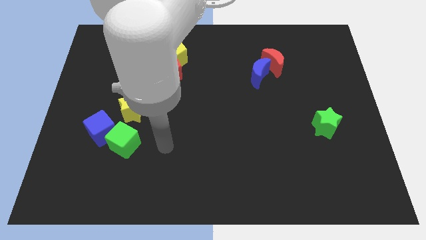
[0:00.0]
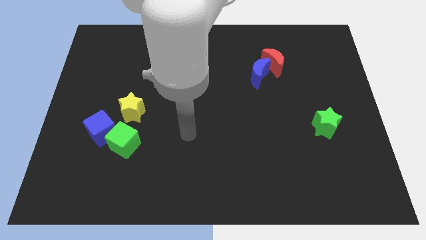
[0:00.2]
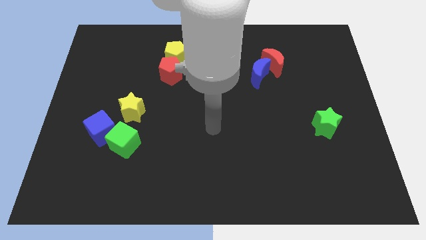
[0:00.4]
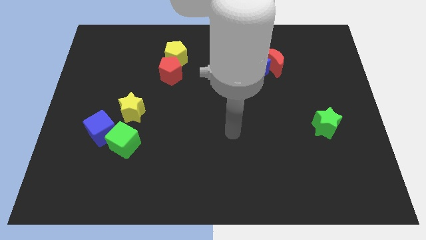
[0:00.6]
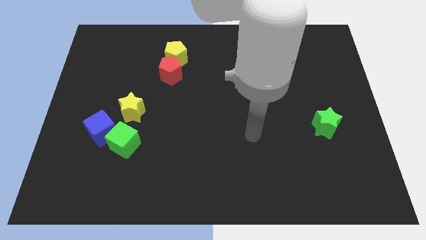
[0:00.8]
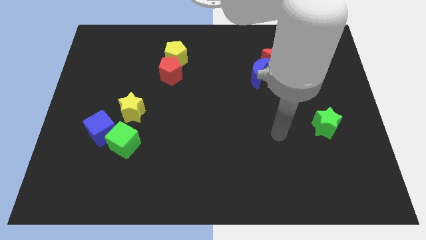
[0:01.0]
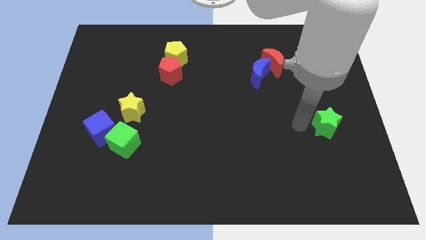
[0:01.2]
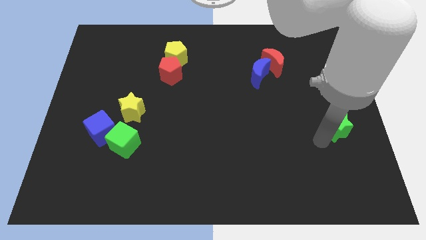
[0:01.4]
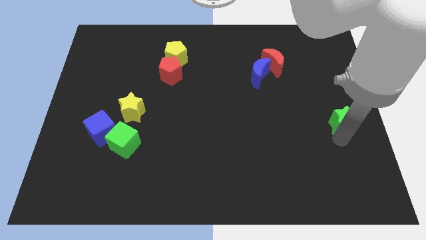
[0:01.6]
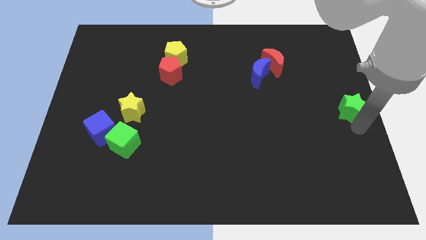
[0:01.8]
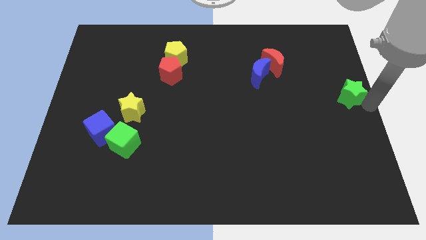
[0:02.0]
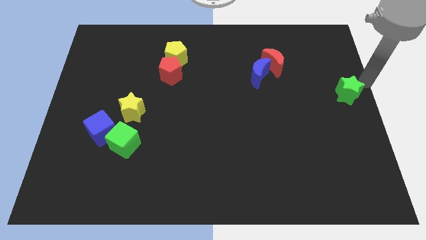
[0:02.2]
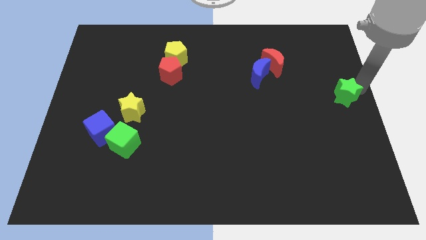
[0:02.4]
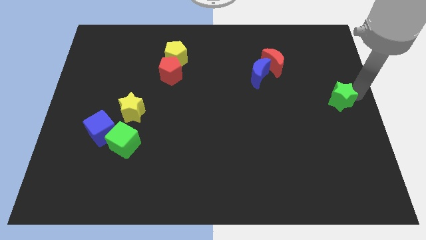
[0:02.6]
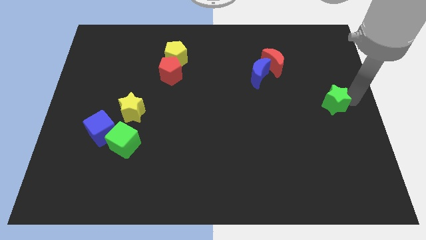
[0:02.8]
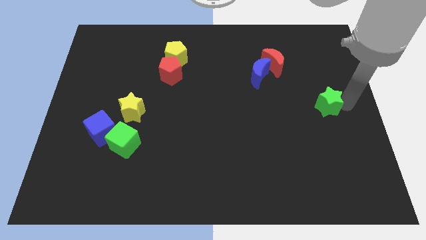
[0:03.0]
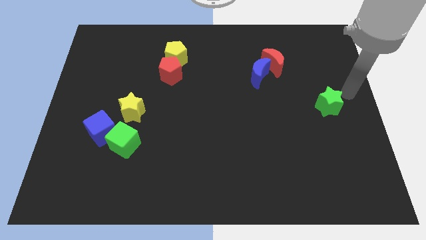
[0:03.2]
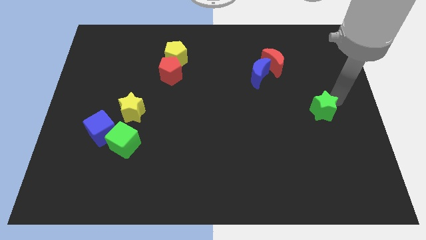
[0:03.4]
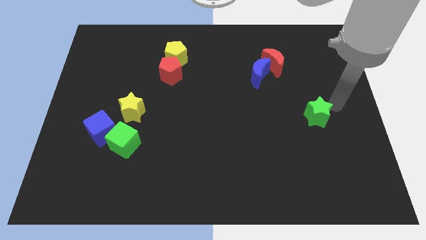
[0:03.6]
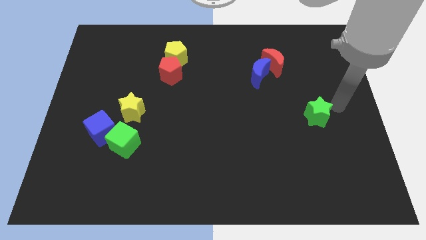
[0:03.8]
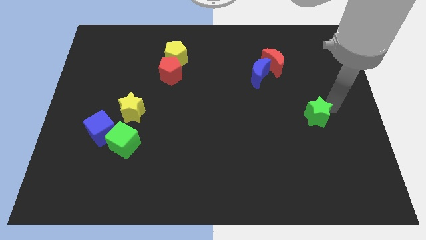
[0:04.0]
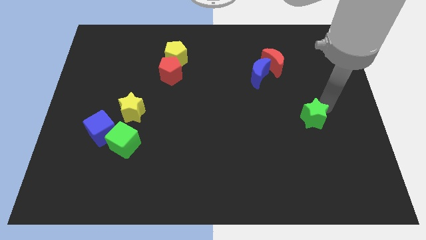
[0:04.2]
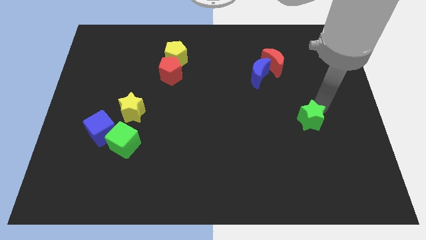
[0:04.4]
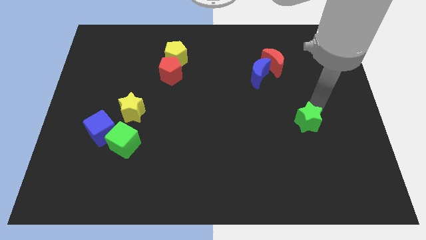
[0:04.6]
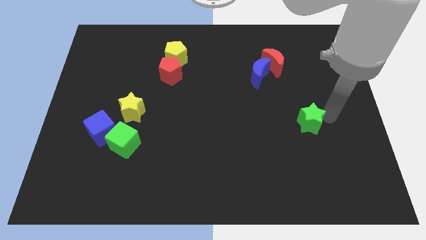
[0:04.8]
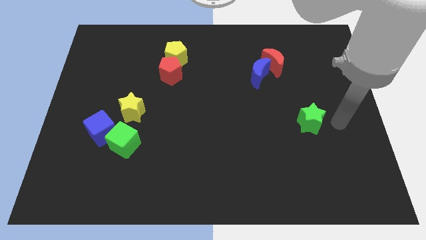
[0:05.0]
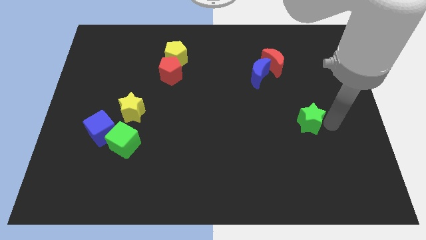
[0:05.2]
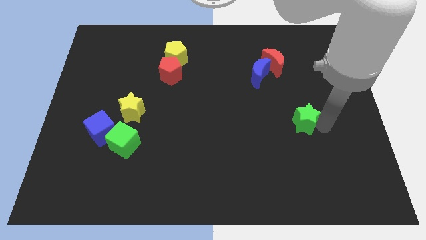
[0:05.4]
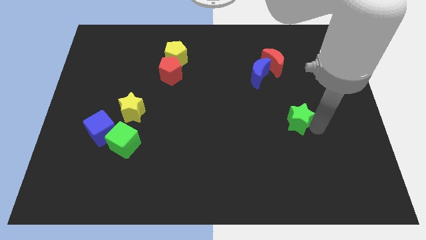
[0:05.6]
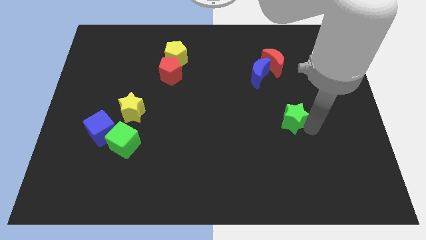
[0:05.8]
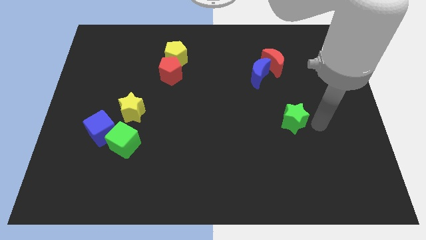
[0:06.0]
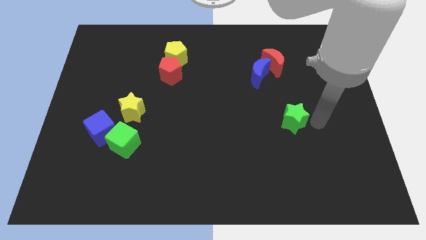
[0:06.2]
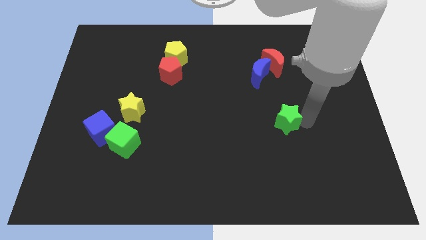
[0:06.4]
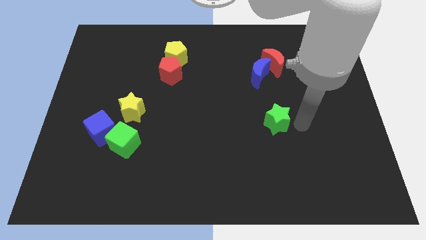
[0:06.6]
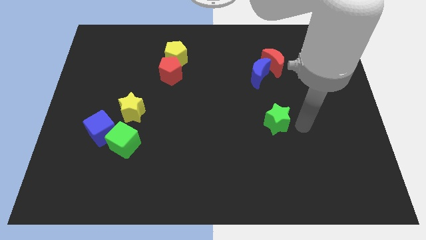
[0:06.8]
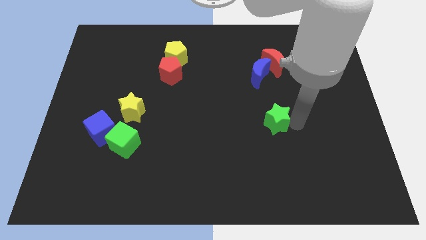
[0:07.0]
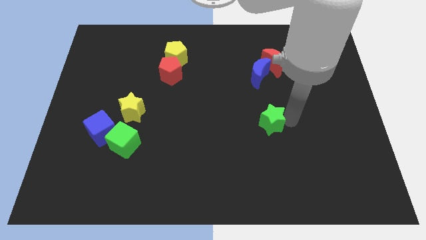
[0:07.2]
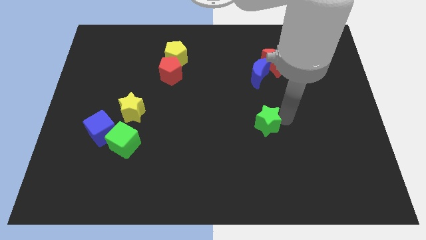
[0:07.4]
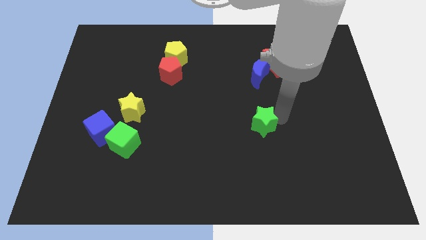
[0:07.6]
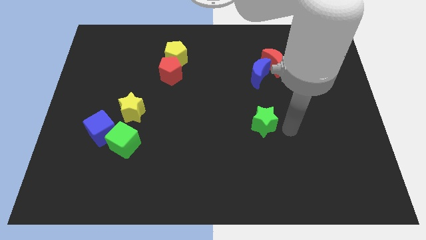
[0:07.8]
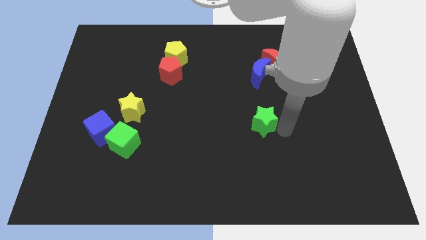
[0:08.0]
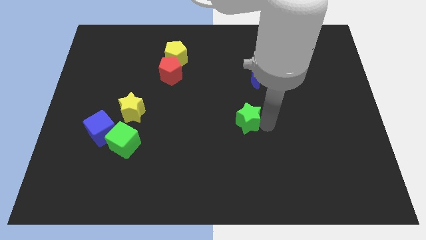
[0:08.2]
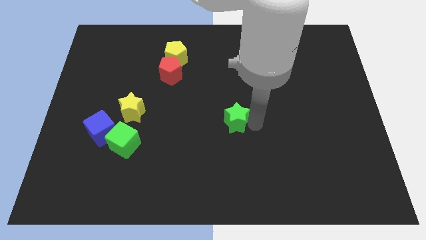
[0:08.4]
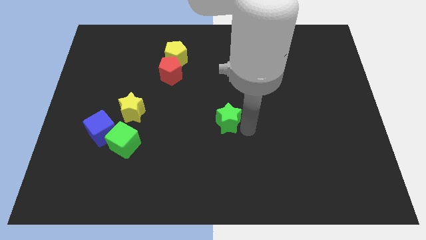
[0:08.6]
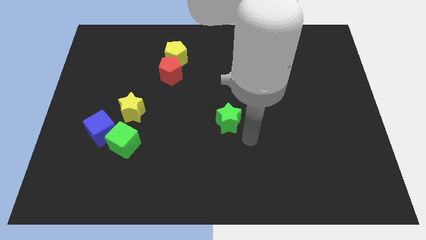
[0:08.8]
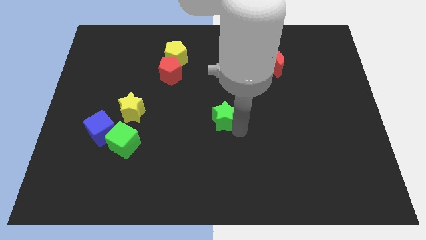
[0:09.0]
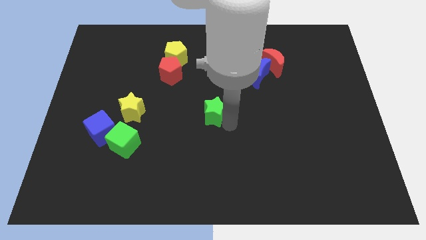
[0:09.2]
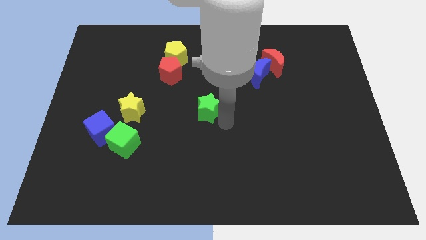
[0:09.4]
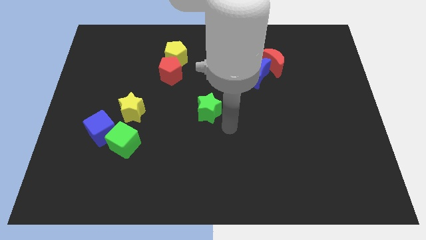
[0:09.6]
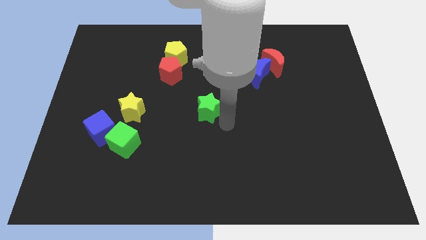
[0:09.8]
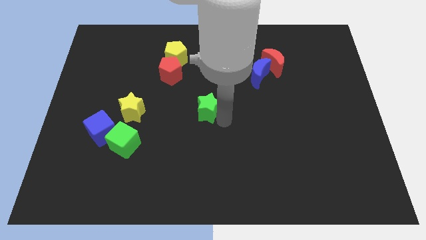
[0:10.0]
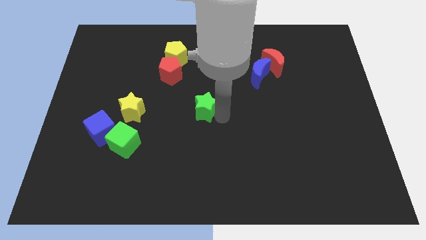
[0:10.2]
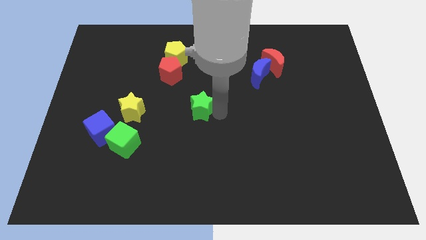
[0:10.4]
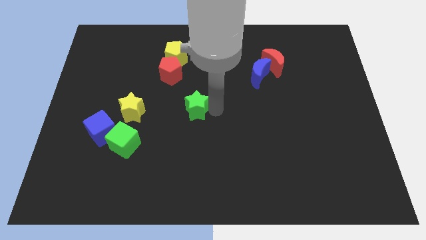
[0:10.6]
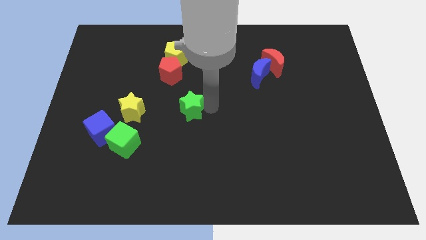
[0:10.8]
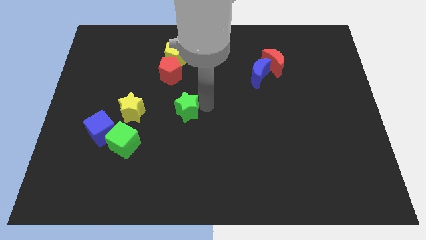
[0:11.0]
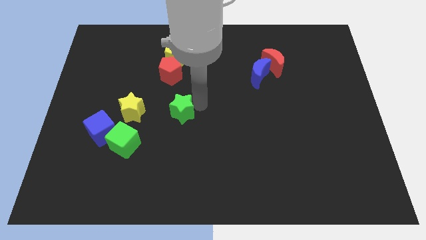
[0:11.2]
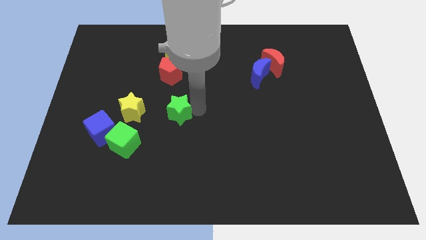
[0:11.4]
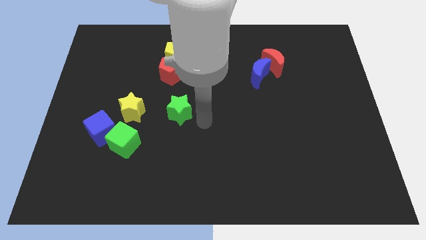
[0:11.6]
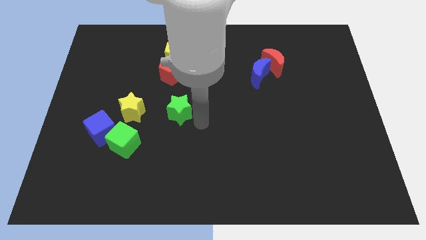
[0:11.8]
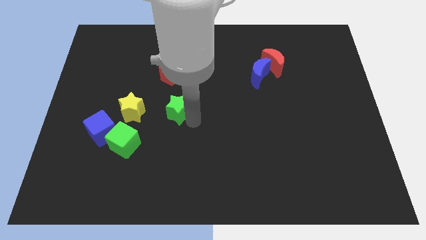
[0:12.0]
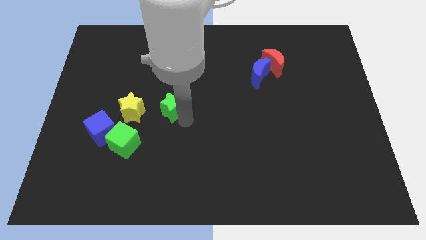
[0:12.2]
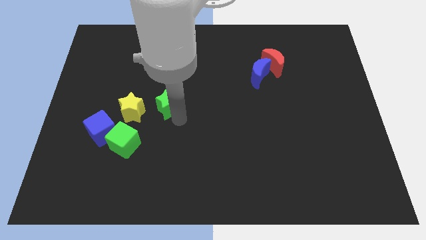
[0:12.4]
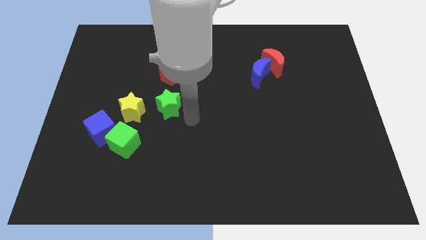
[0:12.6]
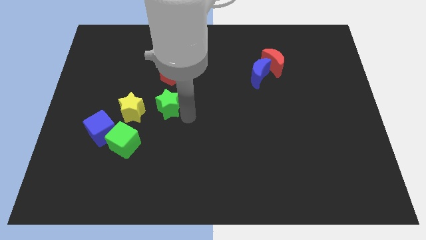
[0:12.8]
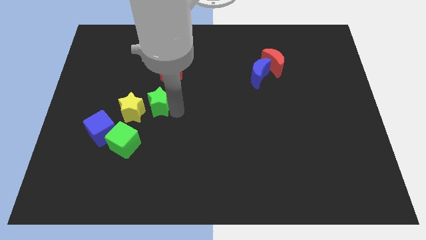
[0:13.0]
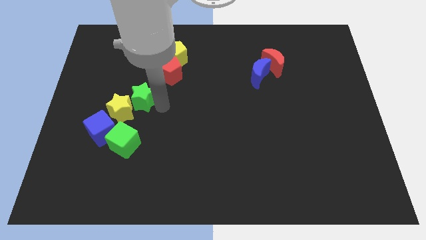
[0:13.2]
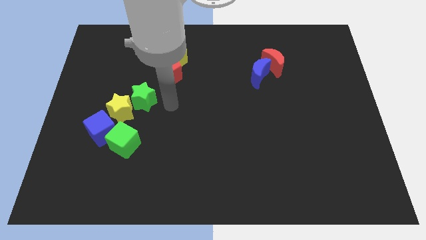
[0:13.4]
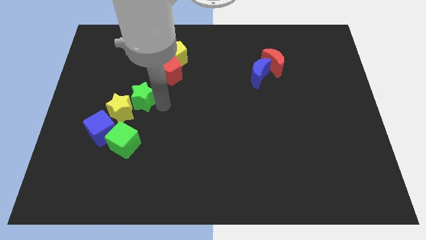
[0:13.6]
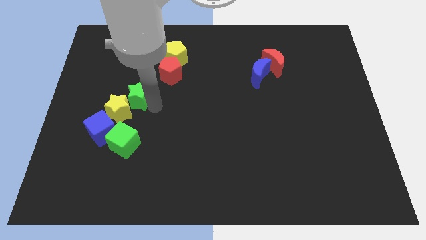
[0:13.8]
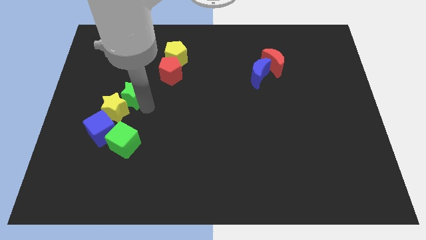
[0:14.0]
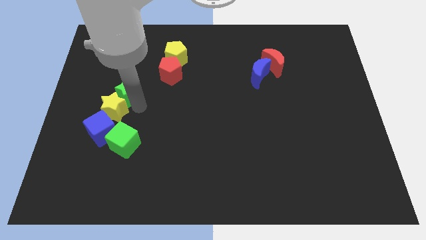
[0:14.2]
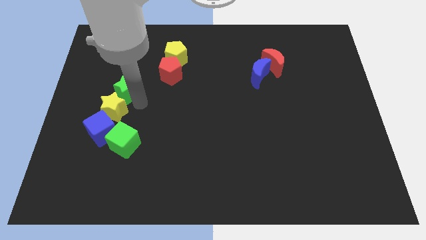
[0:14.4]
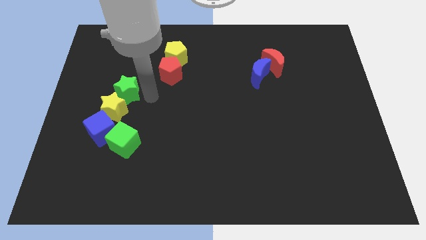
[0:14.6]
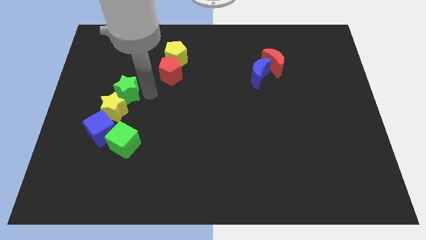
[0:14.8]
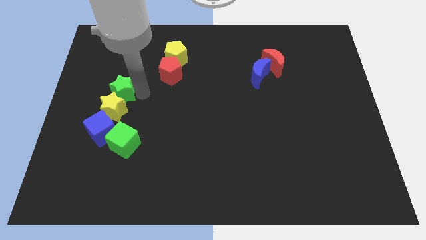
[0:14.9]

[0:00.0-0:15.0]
put the green star to the top left of the yellow star
